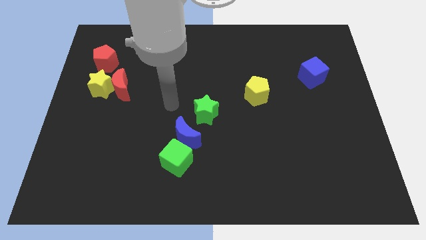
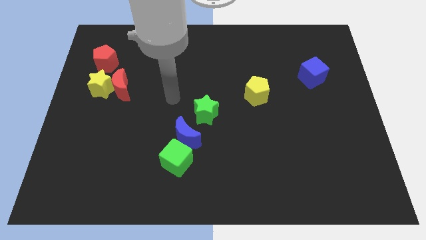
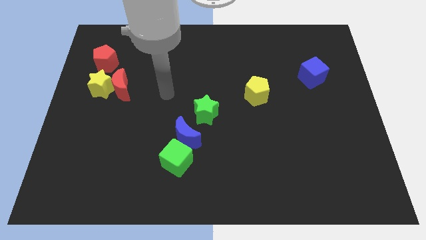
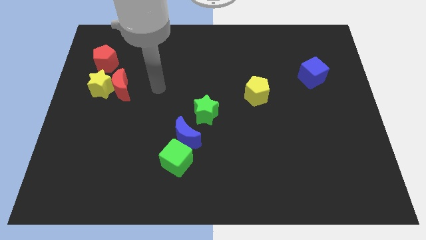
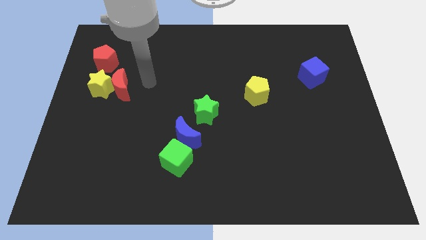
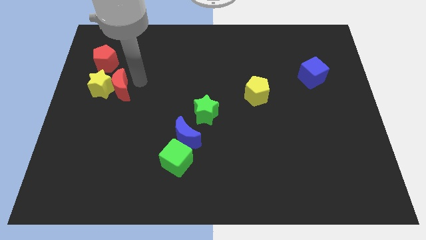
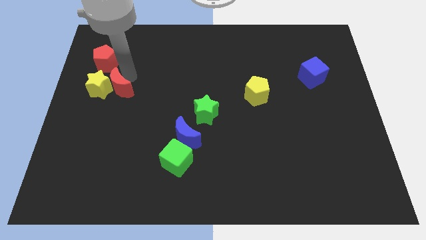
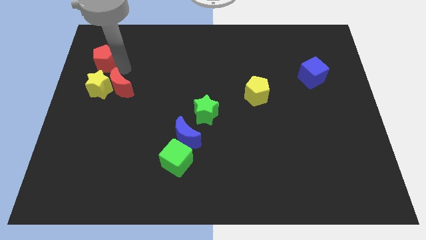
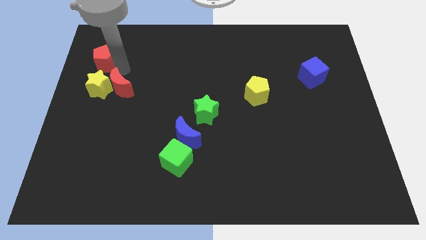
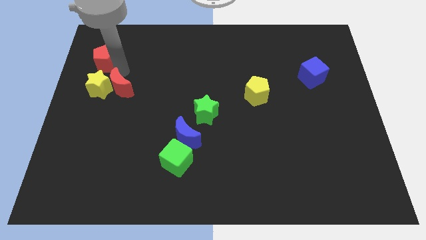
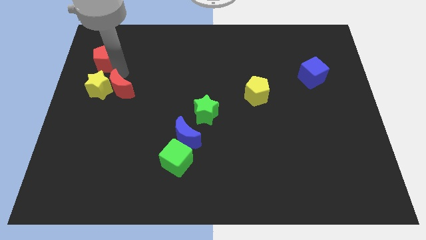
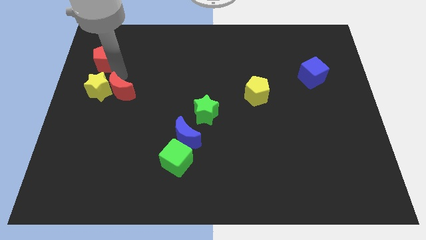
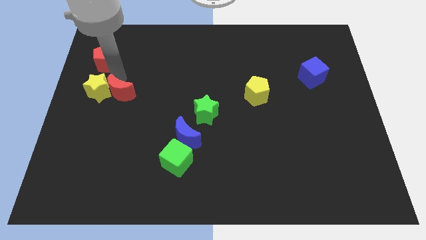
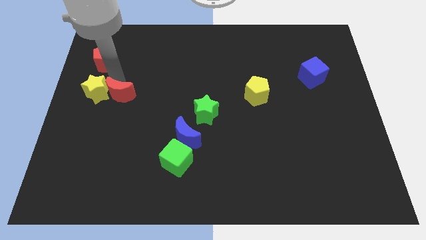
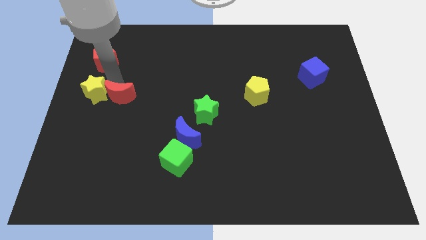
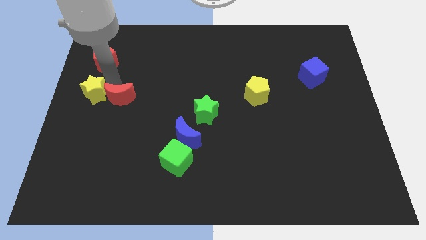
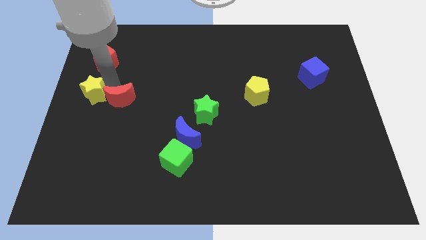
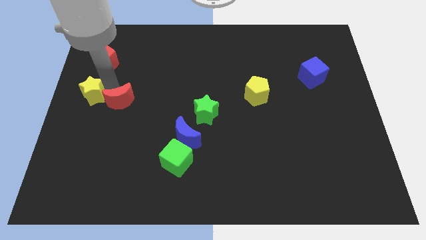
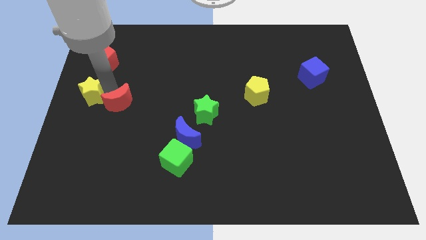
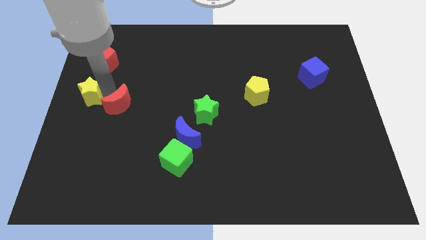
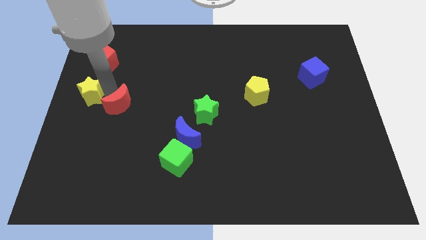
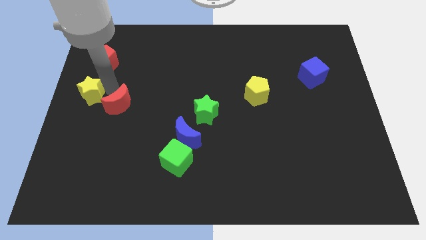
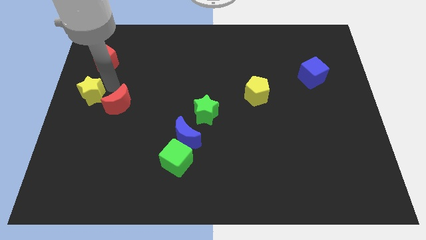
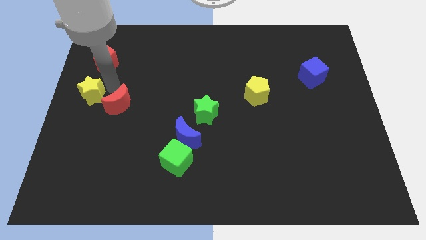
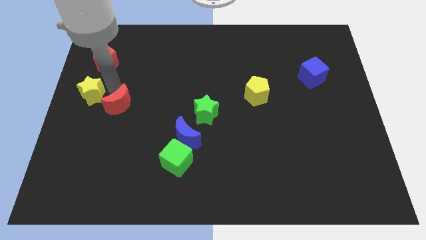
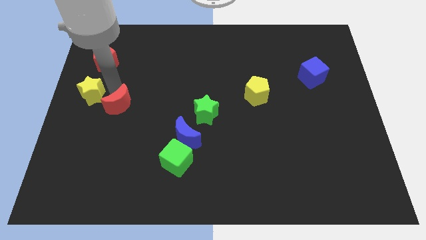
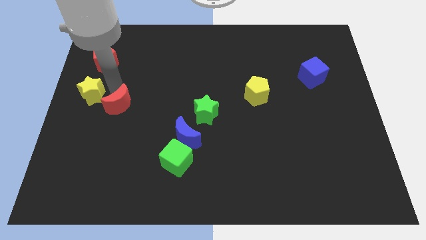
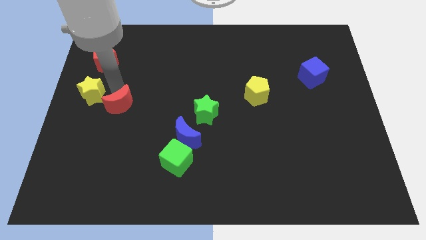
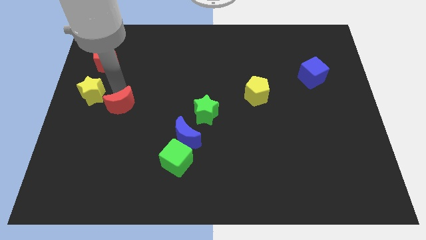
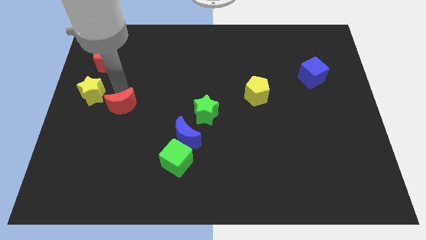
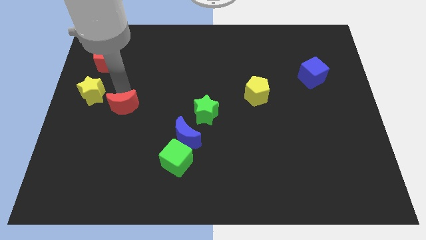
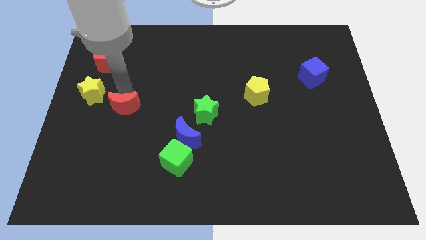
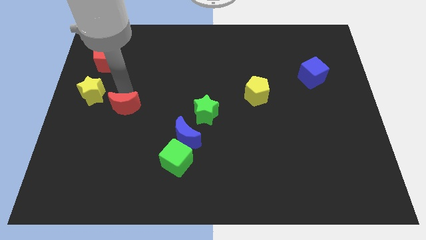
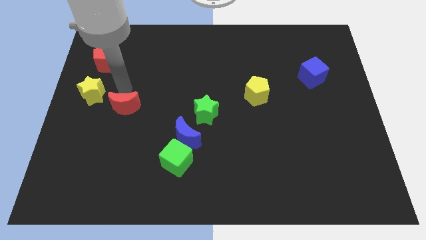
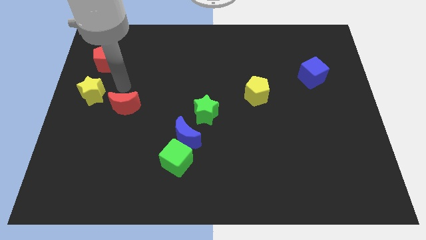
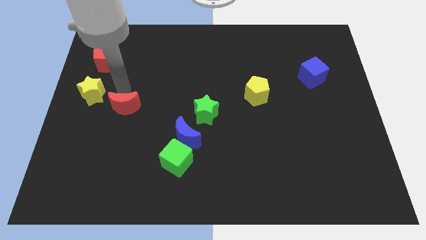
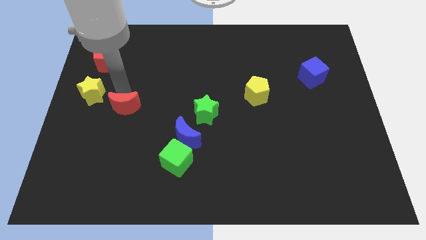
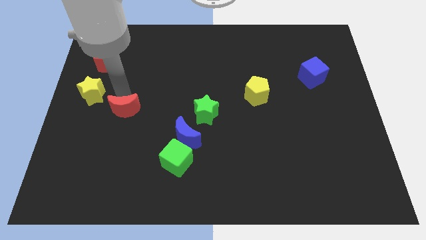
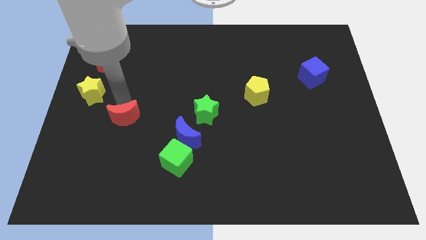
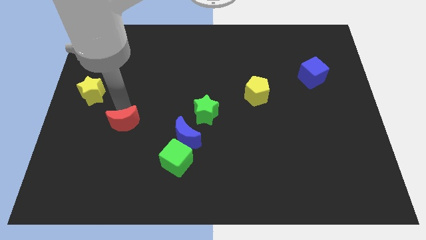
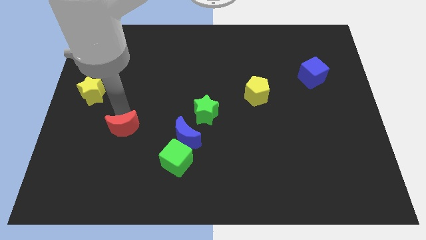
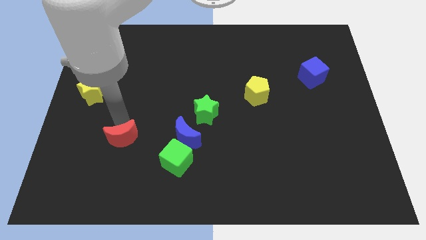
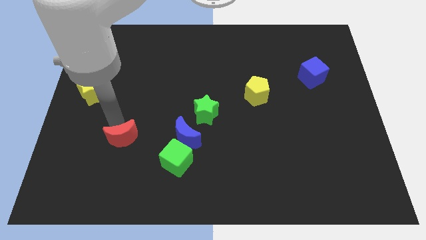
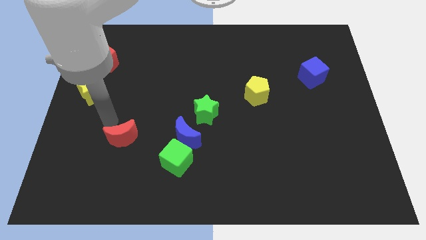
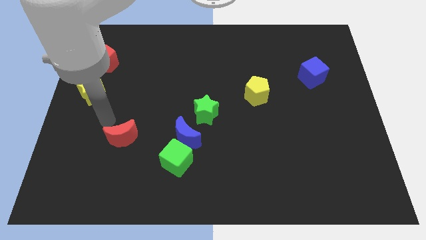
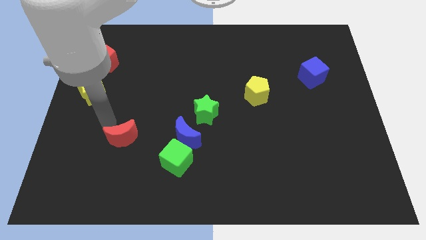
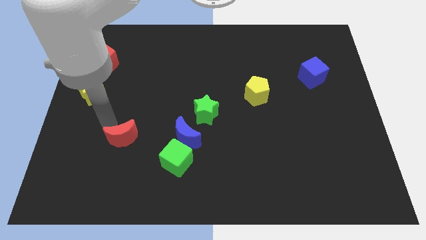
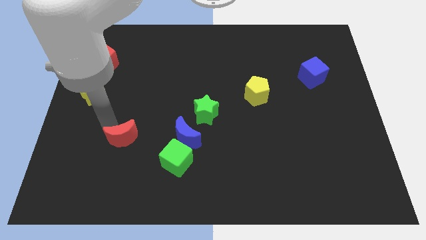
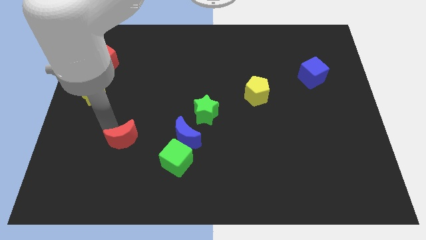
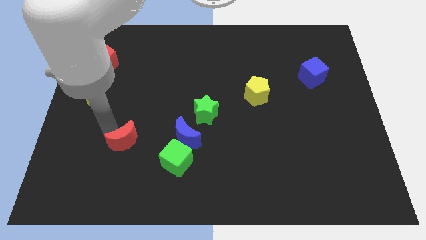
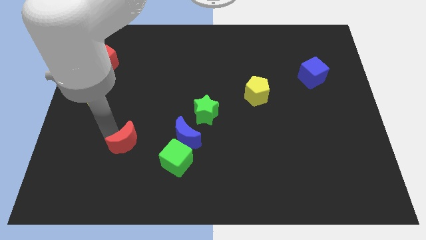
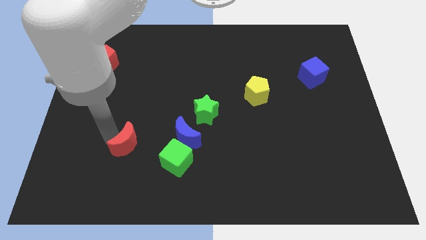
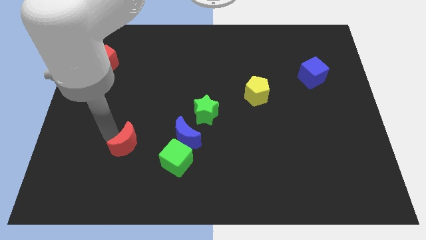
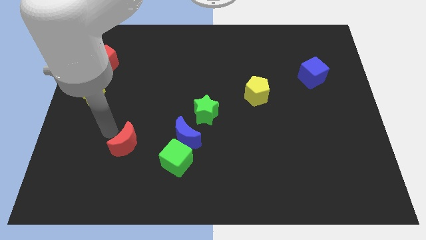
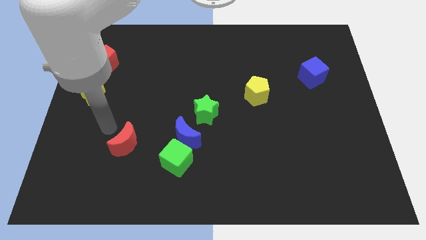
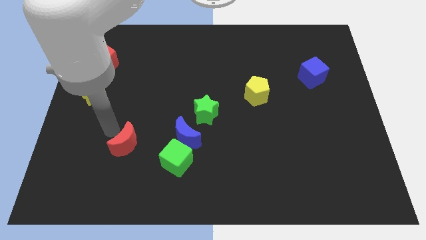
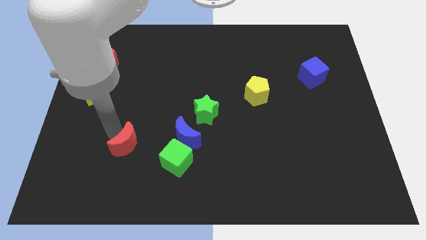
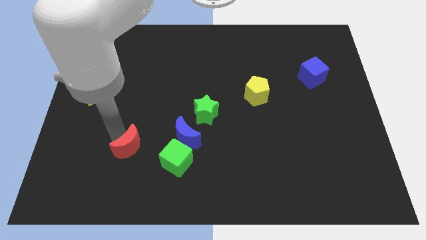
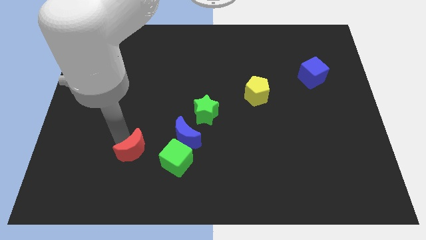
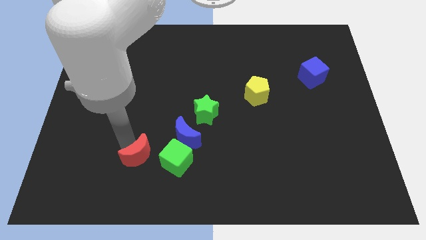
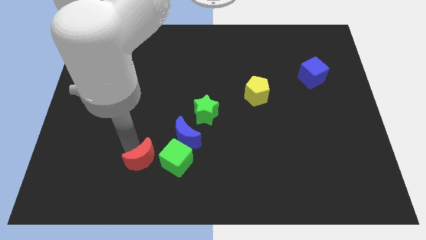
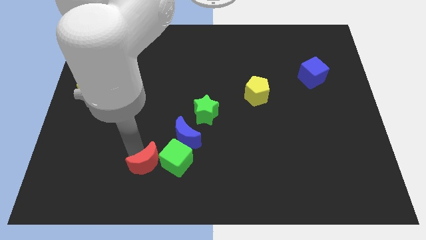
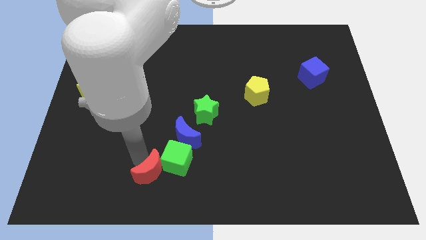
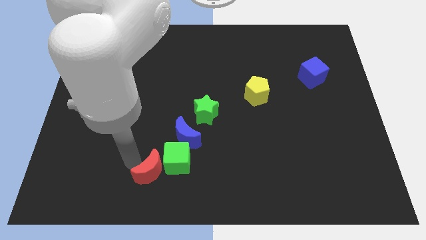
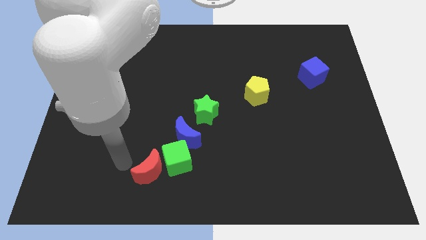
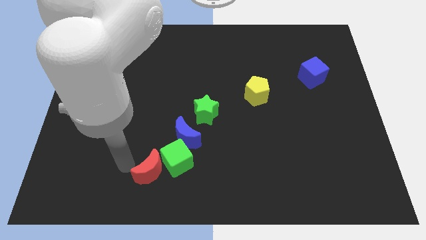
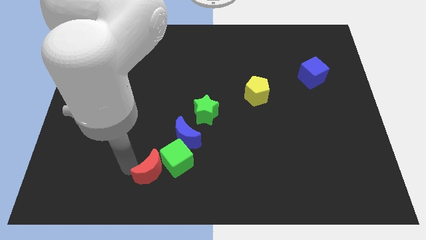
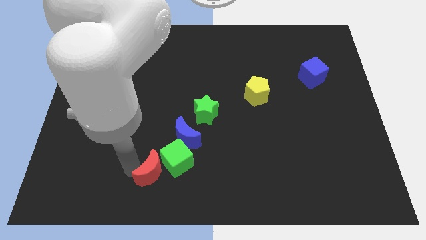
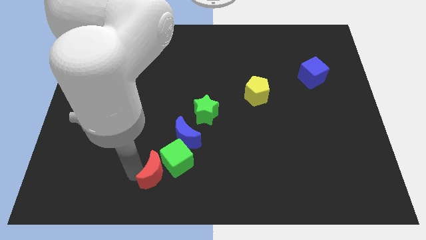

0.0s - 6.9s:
push the red moon down and to the right

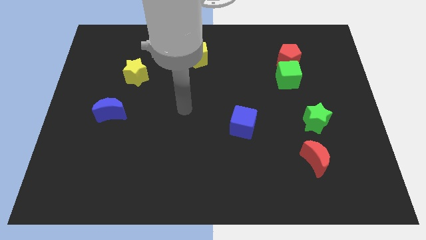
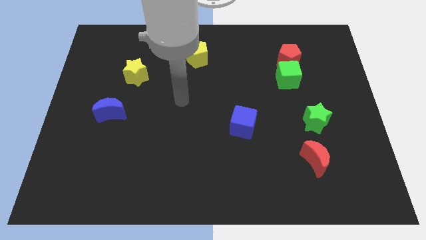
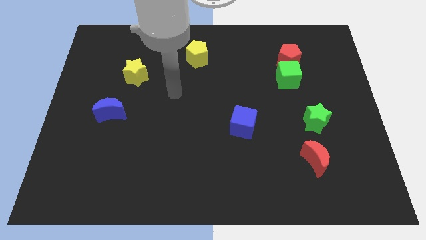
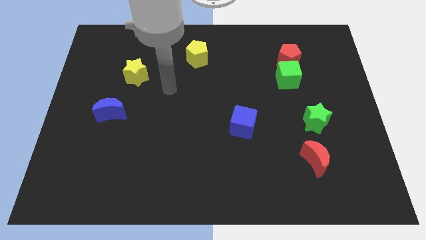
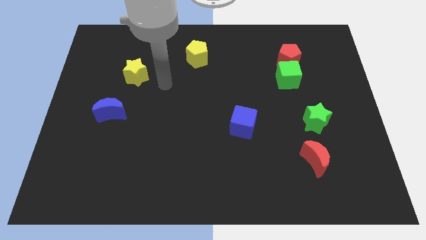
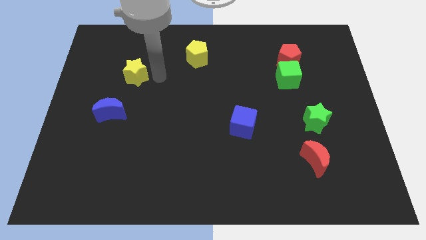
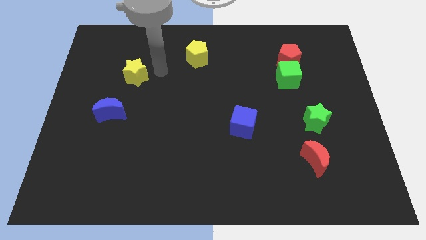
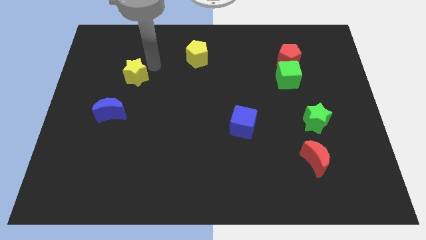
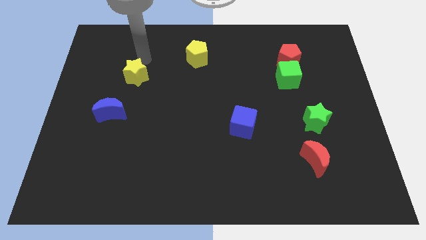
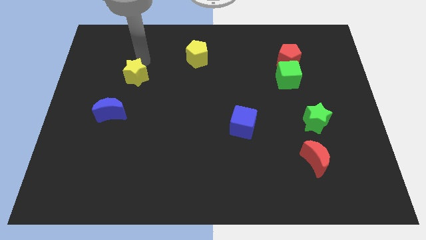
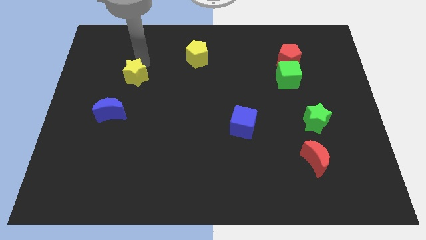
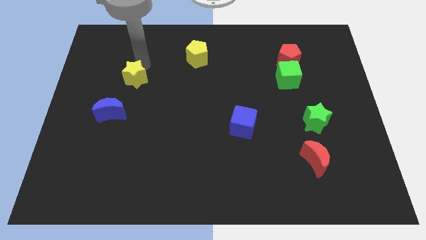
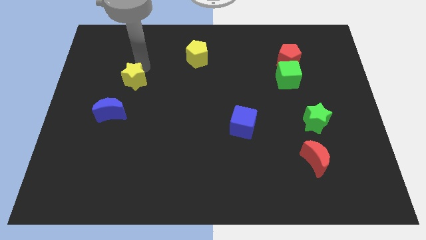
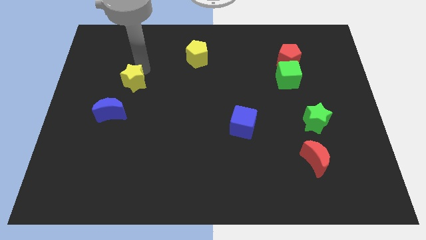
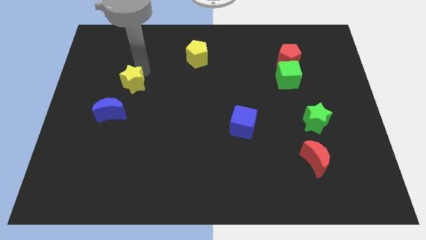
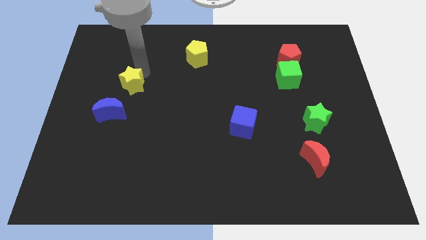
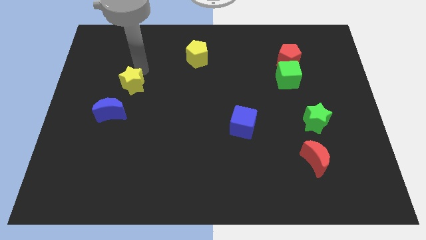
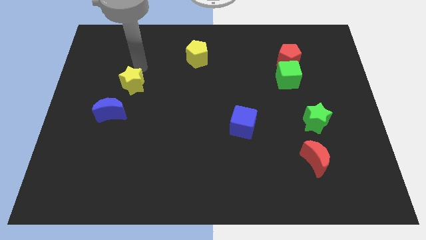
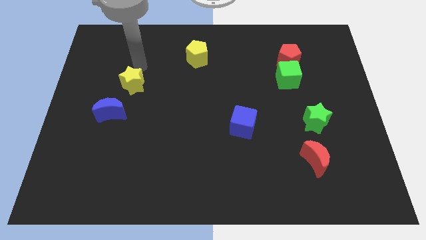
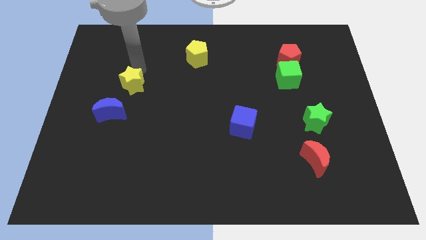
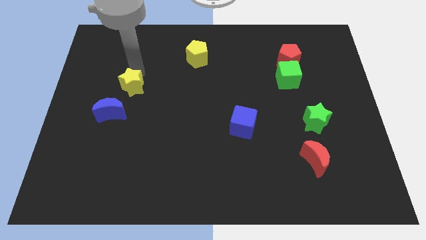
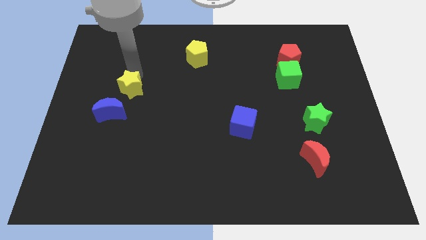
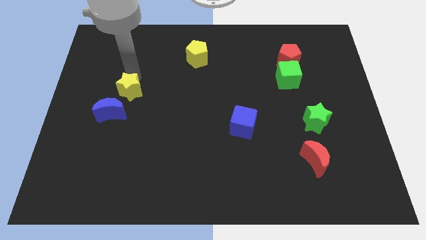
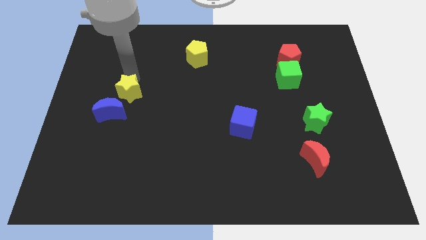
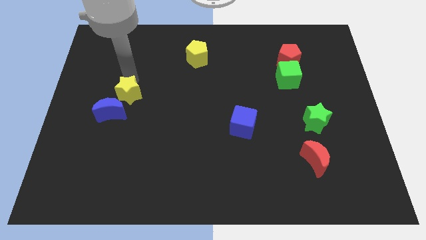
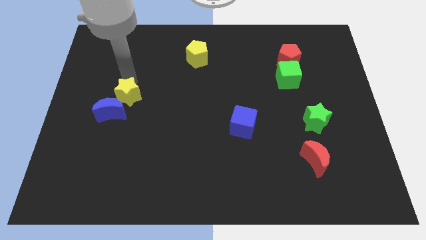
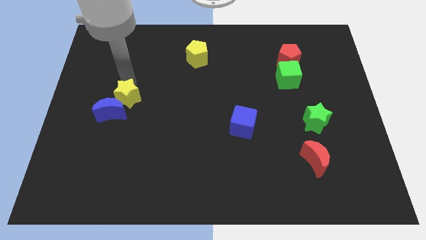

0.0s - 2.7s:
slightly slide the yellow star downwards
